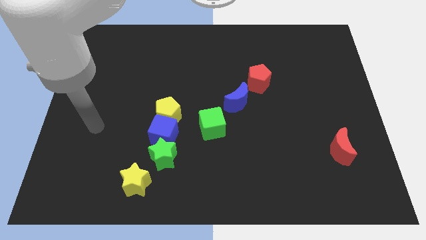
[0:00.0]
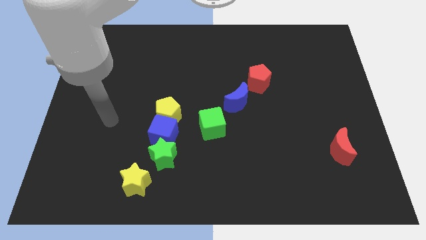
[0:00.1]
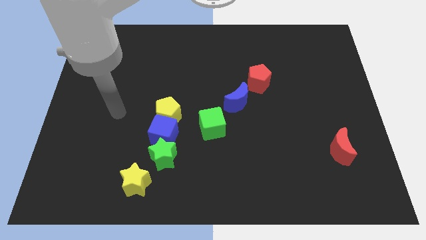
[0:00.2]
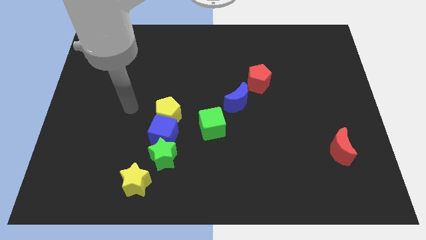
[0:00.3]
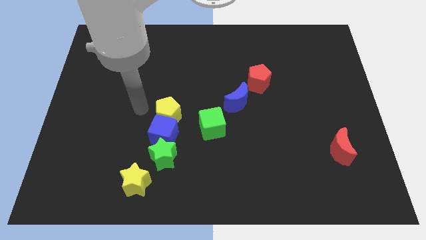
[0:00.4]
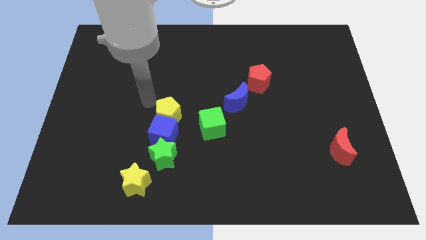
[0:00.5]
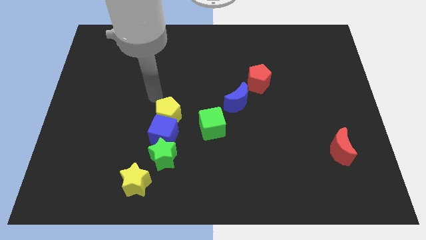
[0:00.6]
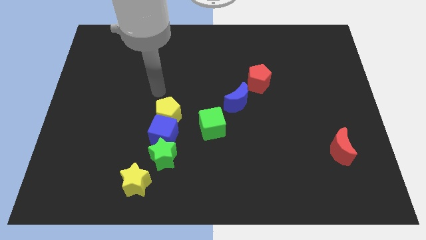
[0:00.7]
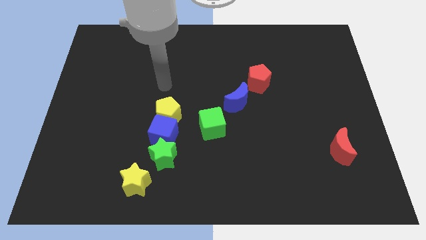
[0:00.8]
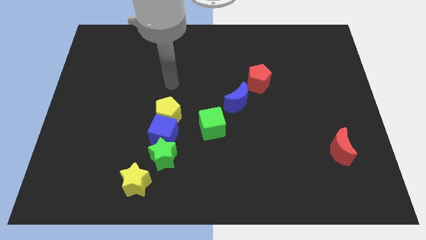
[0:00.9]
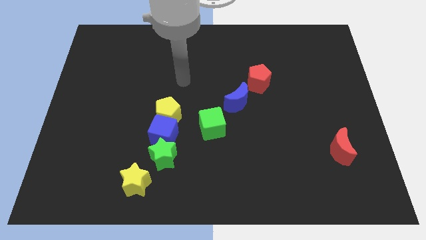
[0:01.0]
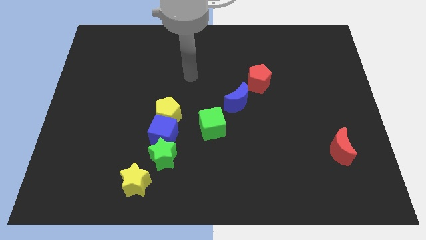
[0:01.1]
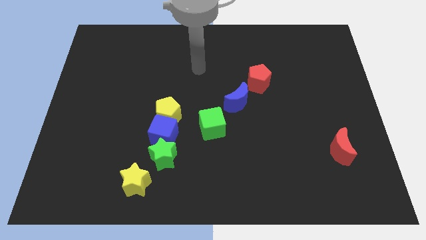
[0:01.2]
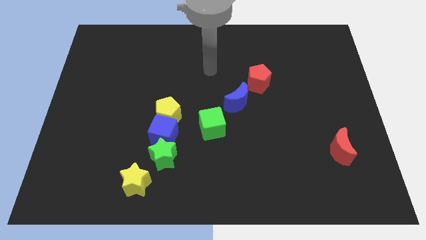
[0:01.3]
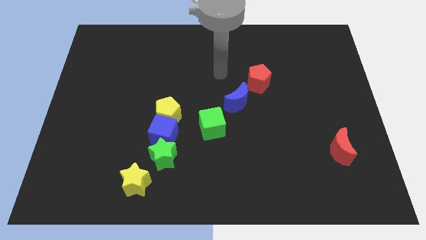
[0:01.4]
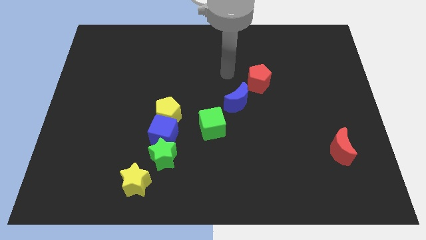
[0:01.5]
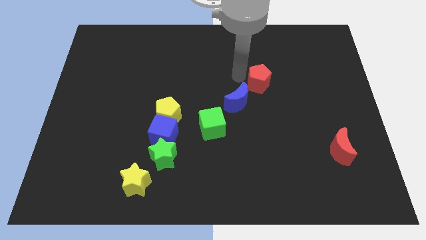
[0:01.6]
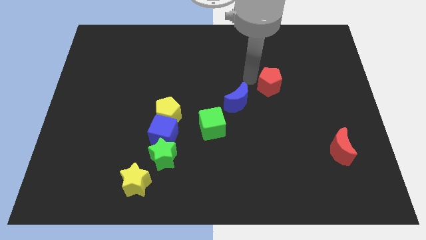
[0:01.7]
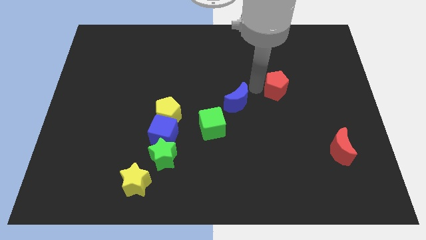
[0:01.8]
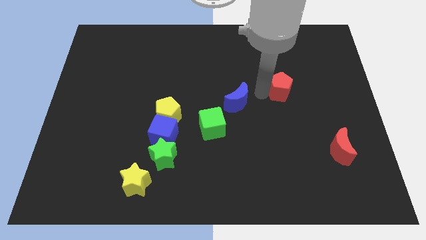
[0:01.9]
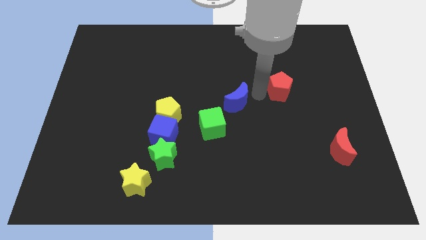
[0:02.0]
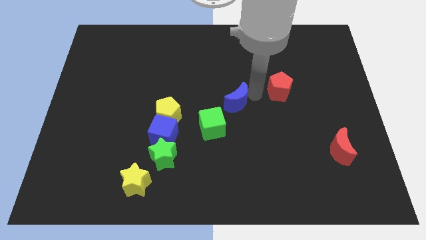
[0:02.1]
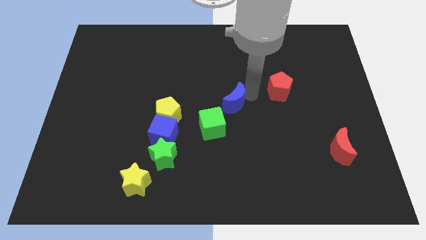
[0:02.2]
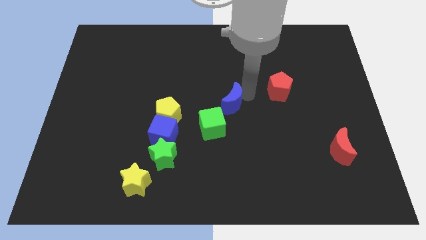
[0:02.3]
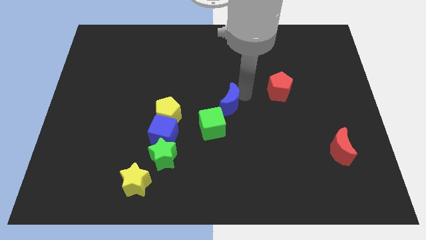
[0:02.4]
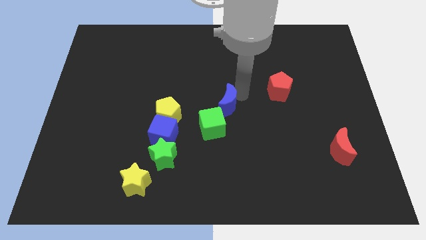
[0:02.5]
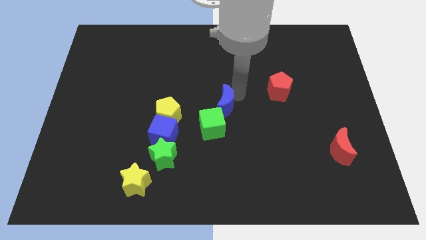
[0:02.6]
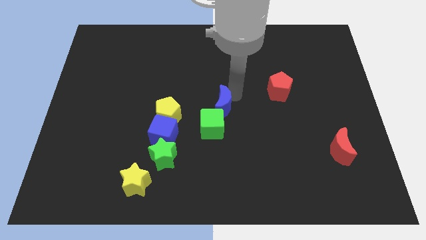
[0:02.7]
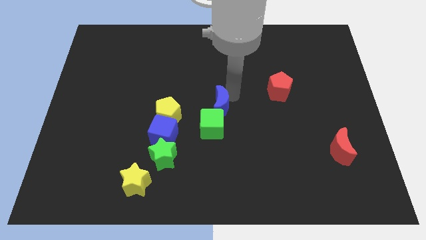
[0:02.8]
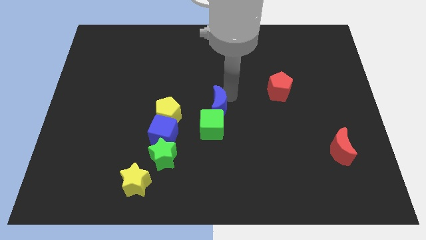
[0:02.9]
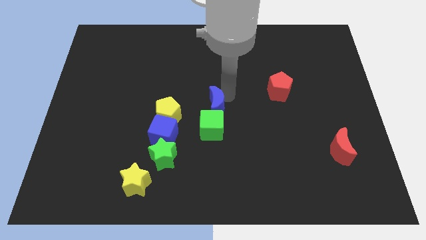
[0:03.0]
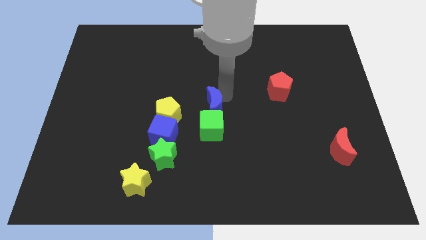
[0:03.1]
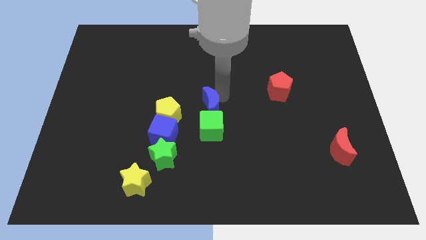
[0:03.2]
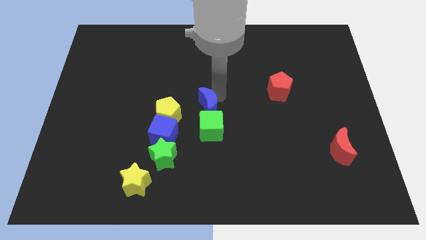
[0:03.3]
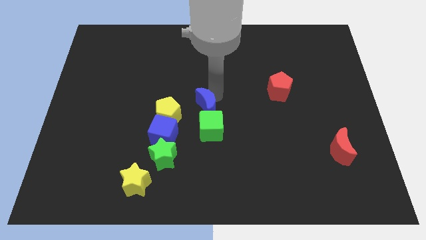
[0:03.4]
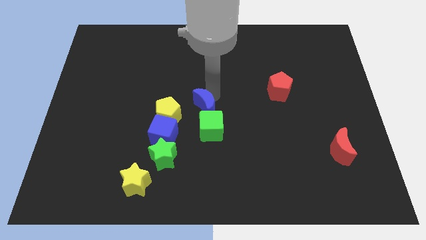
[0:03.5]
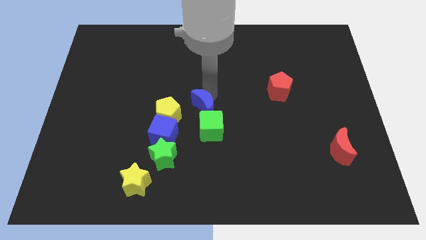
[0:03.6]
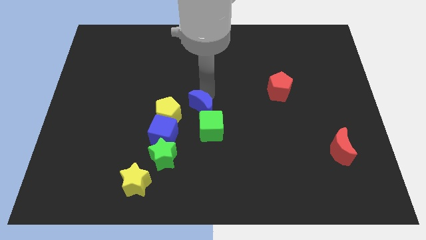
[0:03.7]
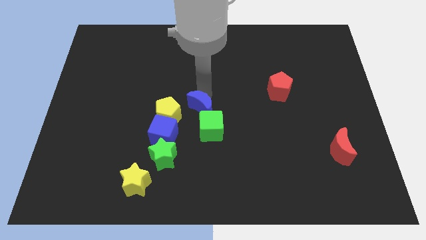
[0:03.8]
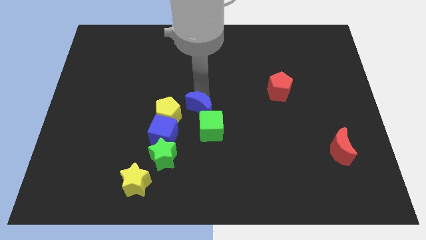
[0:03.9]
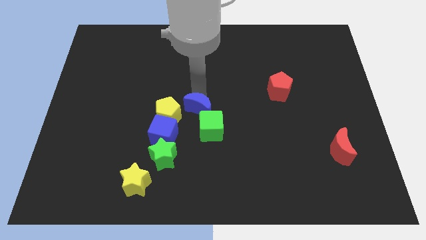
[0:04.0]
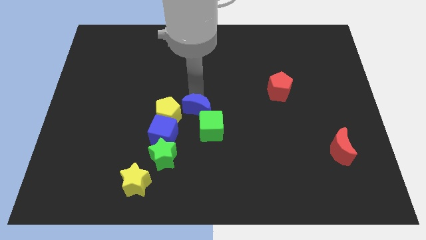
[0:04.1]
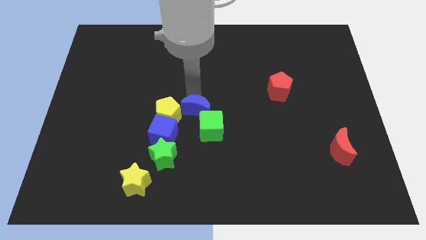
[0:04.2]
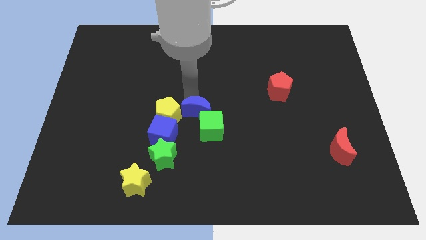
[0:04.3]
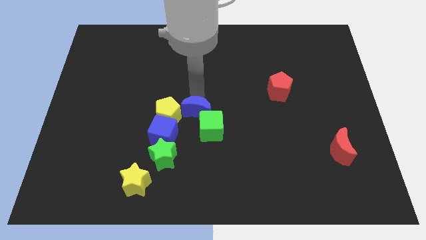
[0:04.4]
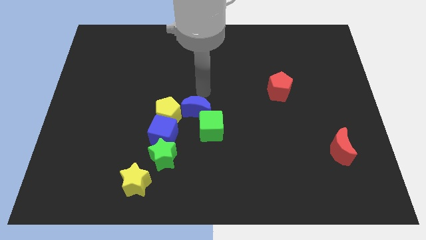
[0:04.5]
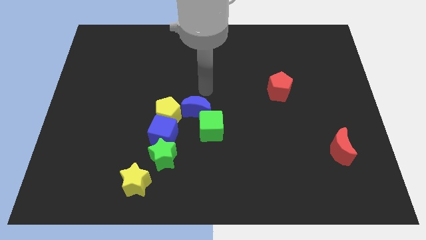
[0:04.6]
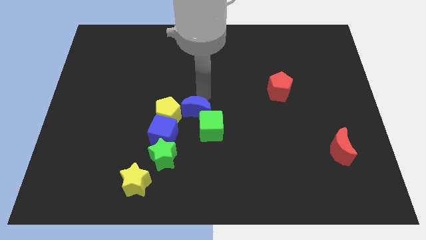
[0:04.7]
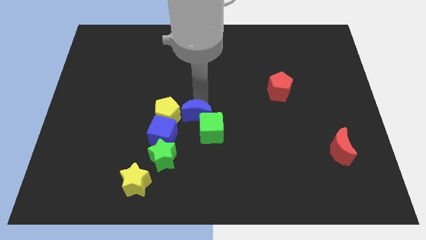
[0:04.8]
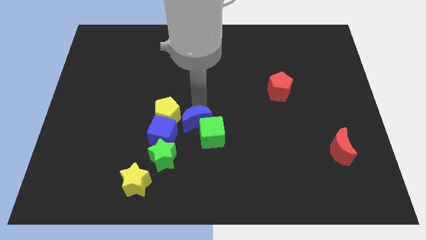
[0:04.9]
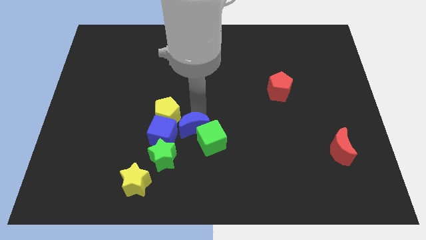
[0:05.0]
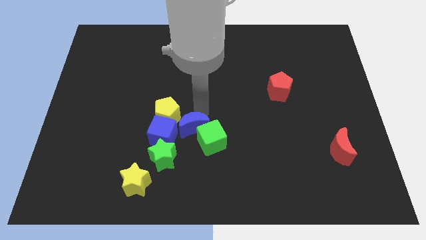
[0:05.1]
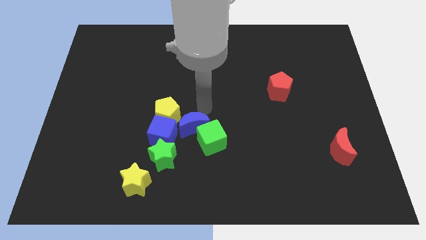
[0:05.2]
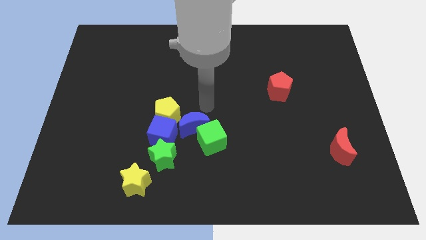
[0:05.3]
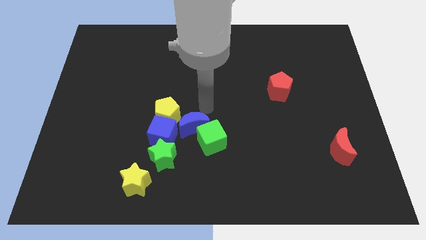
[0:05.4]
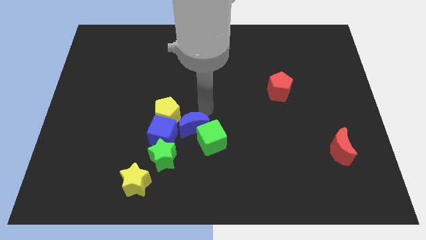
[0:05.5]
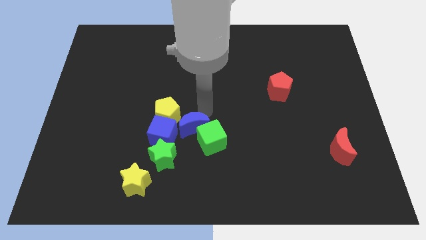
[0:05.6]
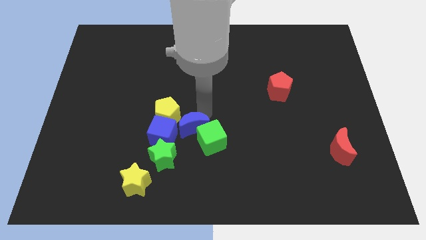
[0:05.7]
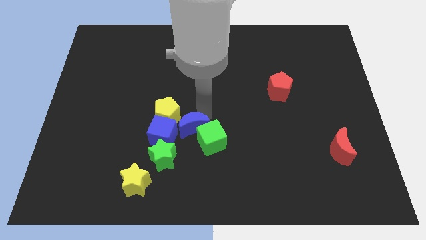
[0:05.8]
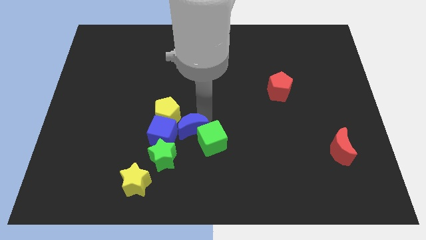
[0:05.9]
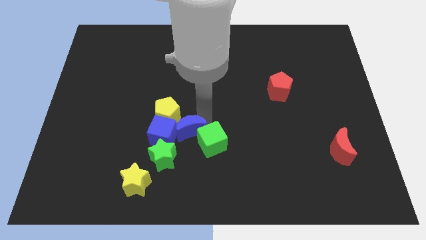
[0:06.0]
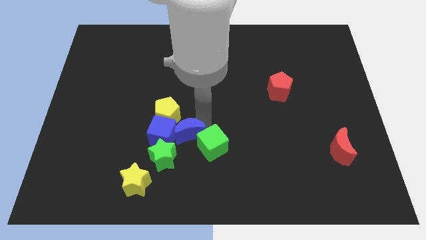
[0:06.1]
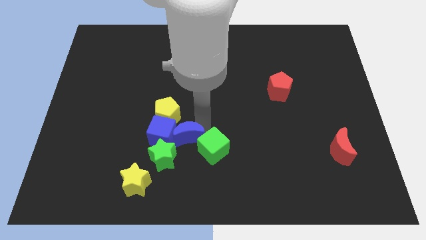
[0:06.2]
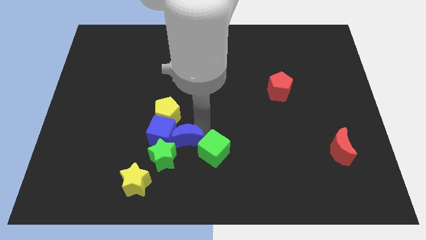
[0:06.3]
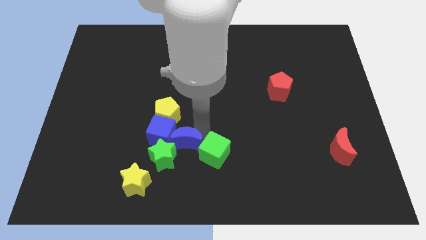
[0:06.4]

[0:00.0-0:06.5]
push the blue moon towards the green star
